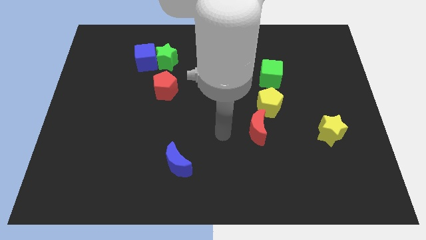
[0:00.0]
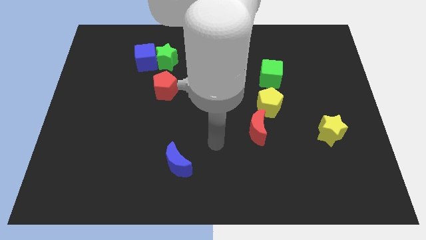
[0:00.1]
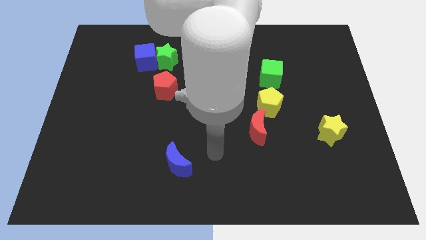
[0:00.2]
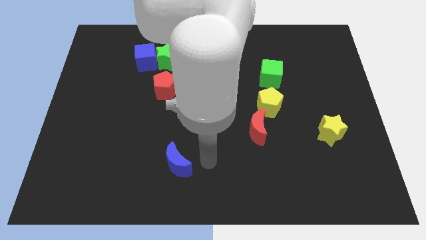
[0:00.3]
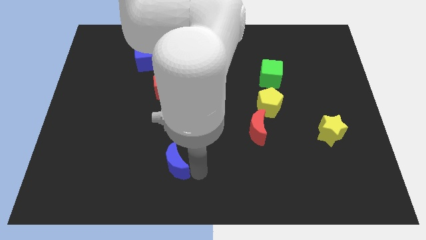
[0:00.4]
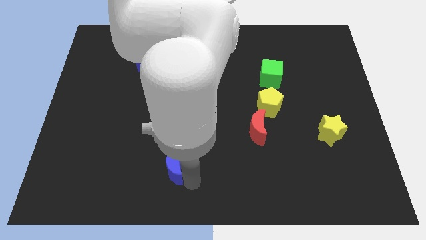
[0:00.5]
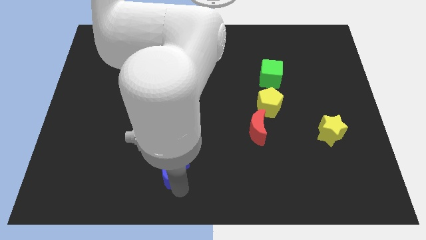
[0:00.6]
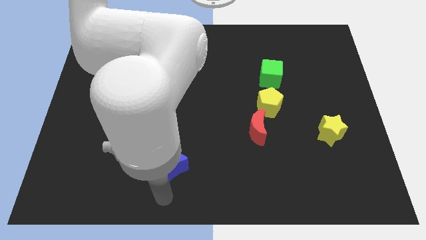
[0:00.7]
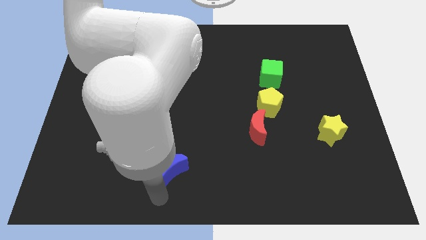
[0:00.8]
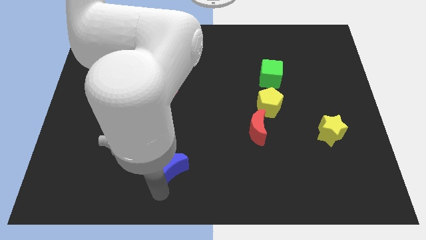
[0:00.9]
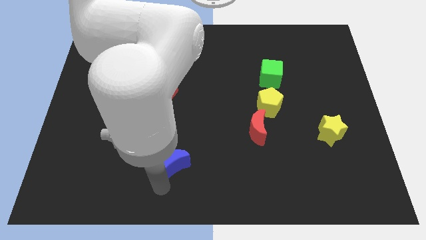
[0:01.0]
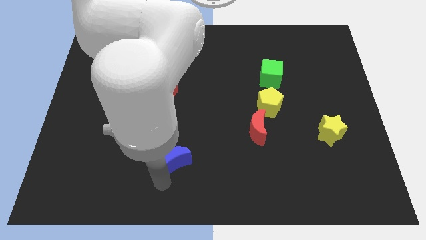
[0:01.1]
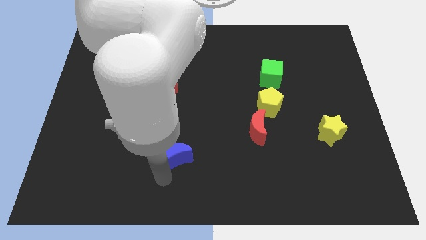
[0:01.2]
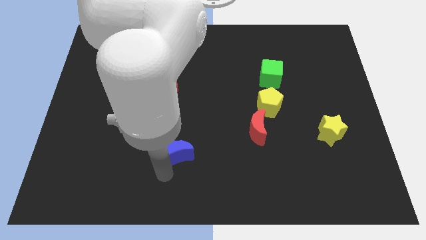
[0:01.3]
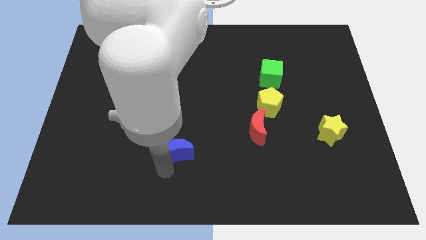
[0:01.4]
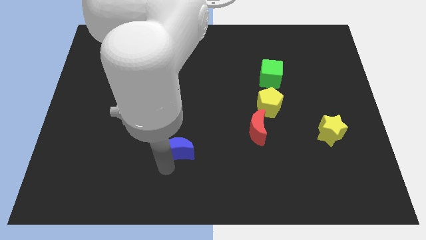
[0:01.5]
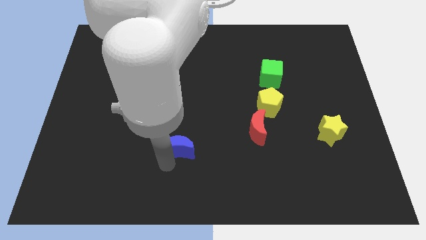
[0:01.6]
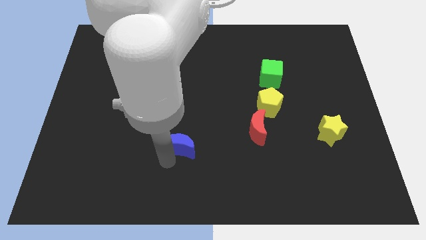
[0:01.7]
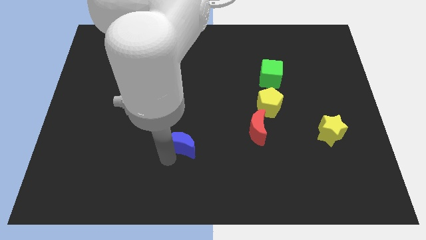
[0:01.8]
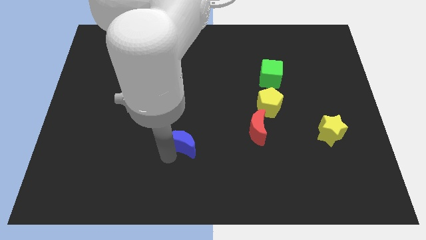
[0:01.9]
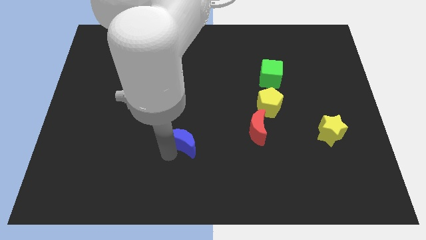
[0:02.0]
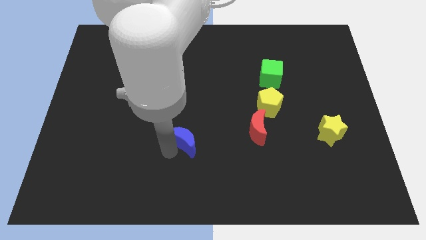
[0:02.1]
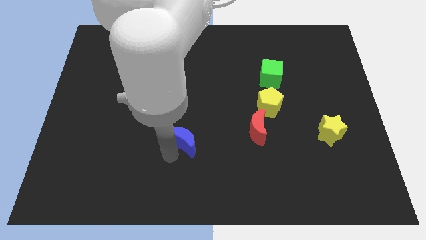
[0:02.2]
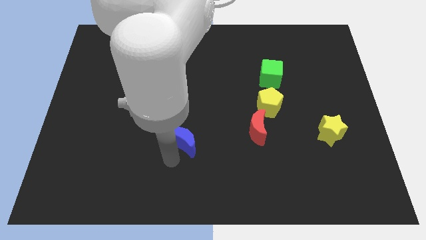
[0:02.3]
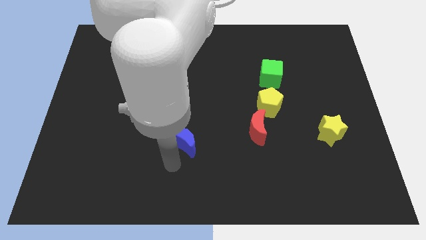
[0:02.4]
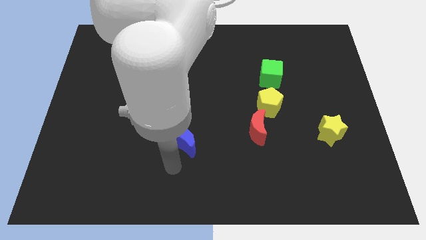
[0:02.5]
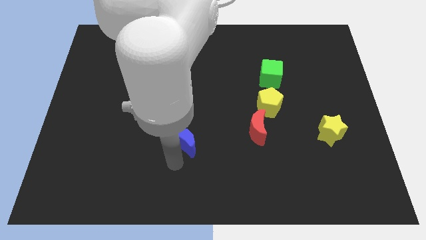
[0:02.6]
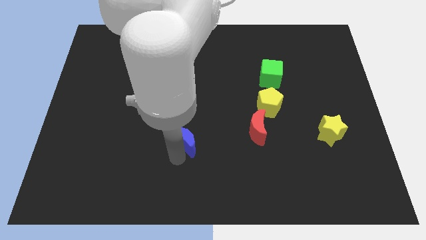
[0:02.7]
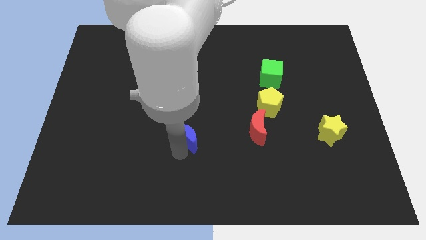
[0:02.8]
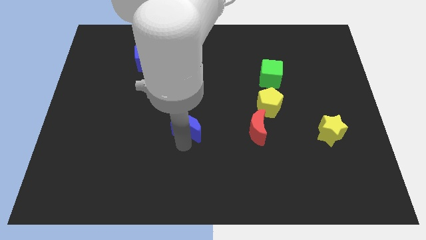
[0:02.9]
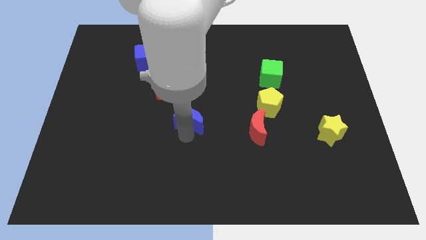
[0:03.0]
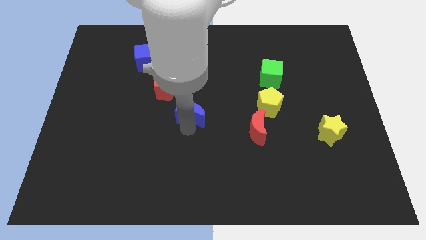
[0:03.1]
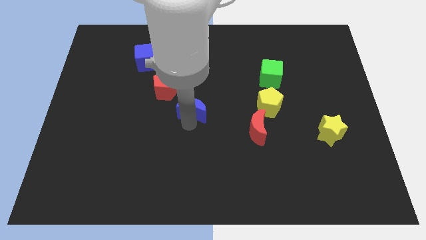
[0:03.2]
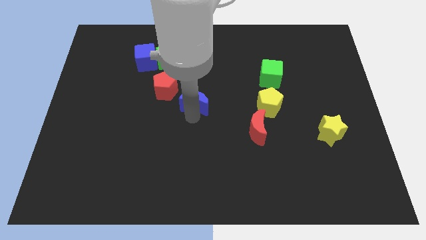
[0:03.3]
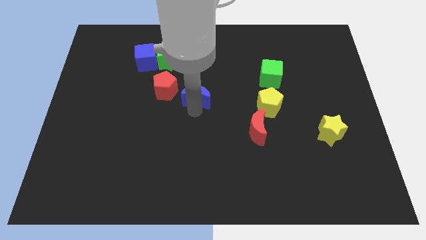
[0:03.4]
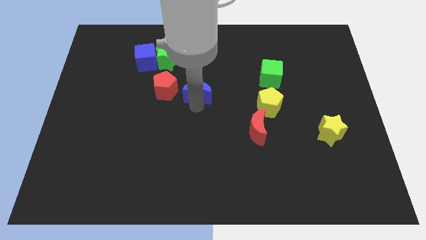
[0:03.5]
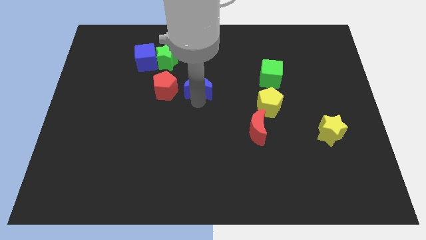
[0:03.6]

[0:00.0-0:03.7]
move the blue moon upwards

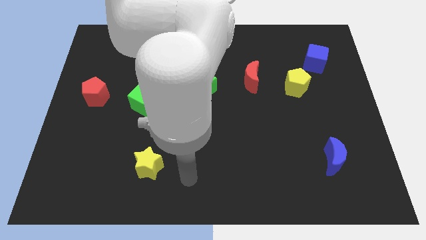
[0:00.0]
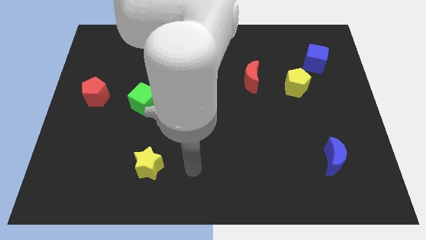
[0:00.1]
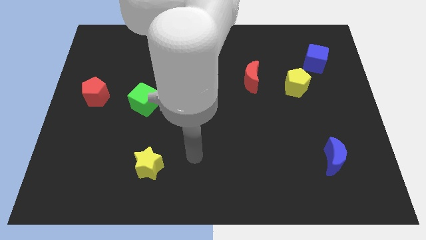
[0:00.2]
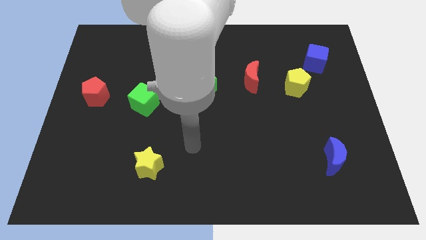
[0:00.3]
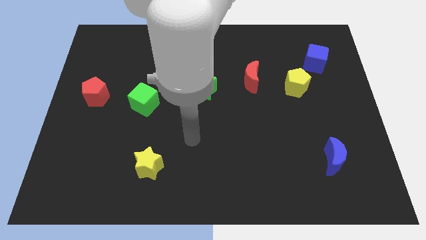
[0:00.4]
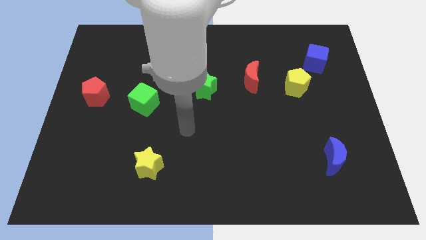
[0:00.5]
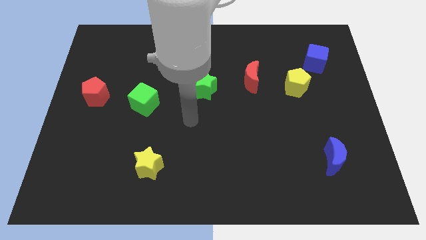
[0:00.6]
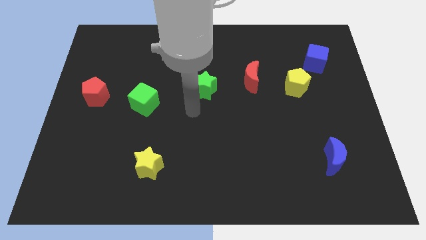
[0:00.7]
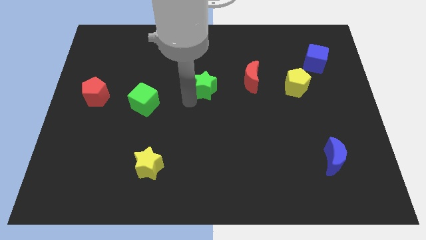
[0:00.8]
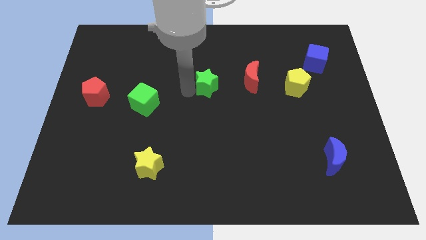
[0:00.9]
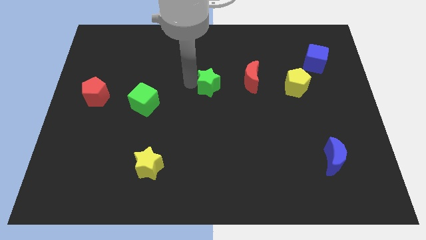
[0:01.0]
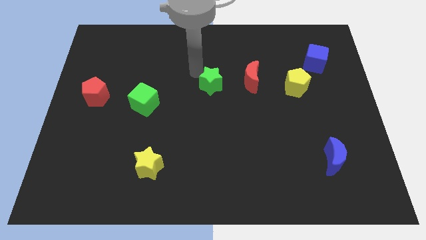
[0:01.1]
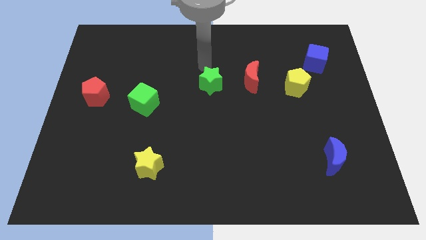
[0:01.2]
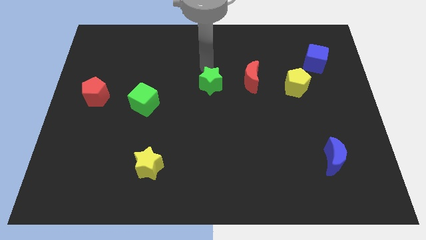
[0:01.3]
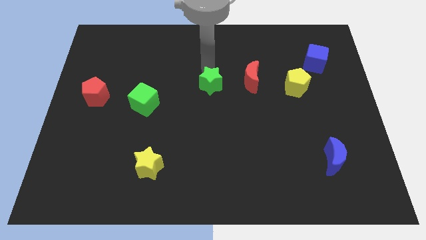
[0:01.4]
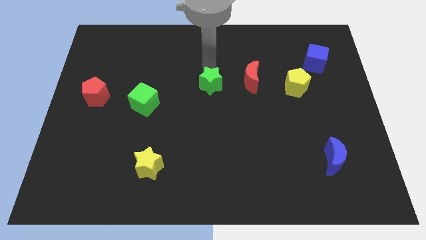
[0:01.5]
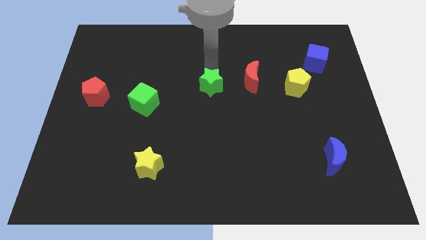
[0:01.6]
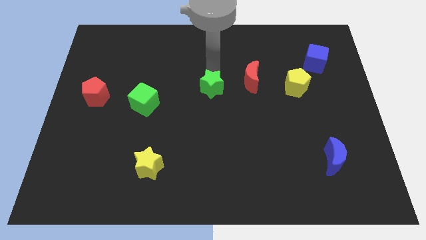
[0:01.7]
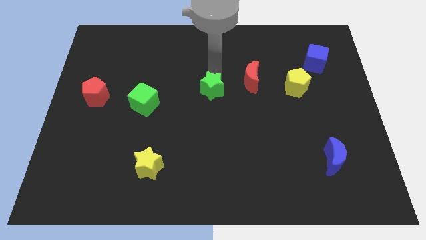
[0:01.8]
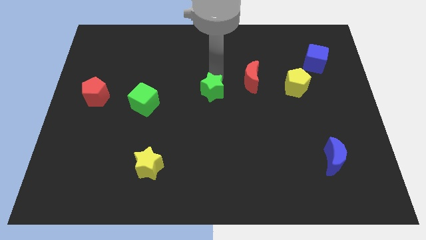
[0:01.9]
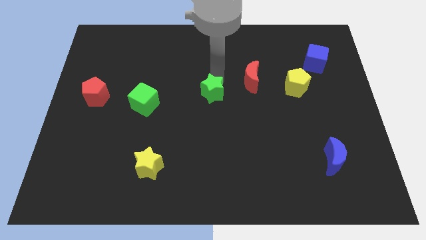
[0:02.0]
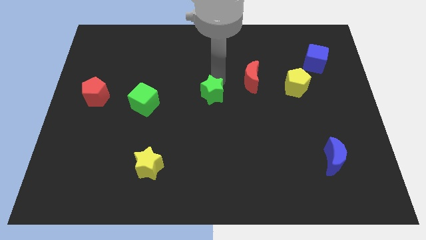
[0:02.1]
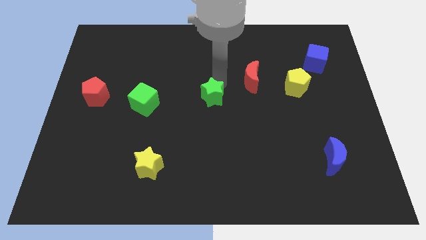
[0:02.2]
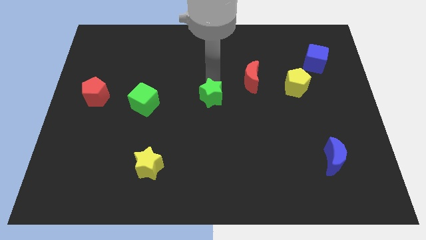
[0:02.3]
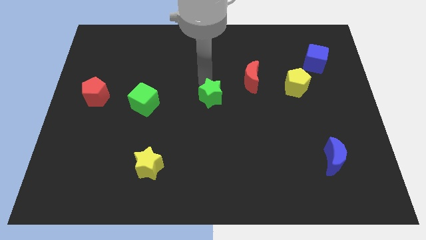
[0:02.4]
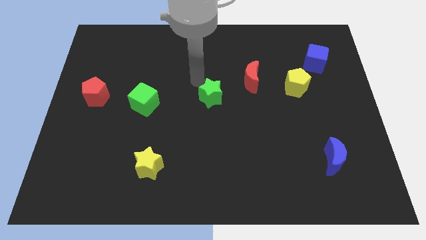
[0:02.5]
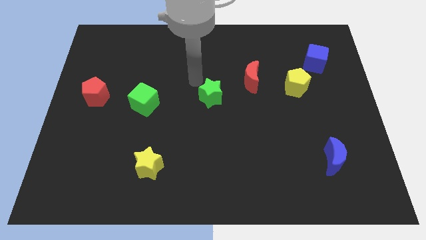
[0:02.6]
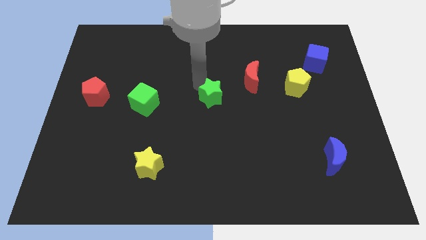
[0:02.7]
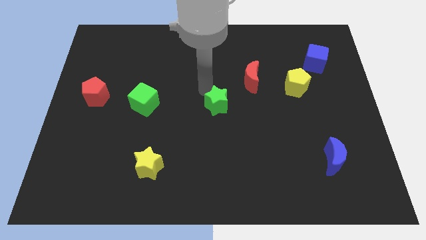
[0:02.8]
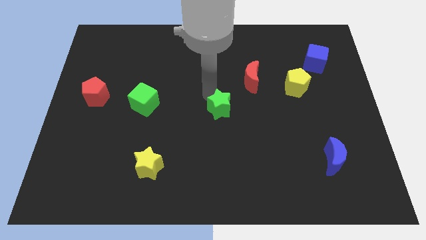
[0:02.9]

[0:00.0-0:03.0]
push the green star diagonally downwards and right a little

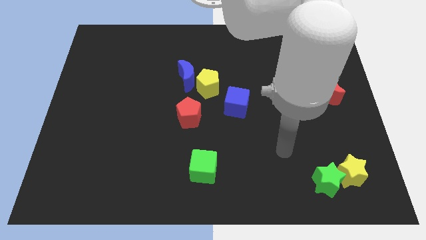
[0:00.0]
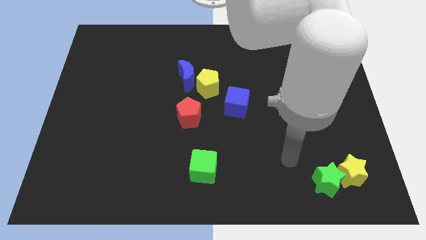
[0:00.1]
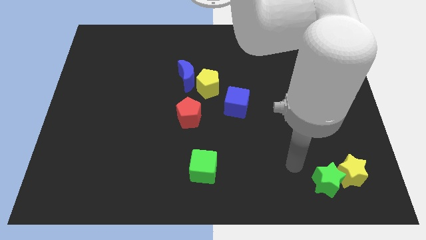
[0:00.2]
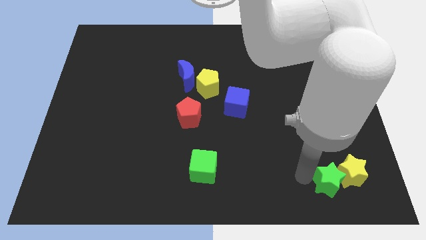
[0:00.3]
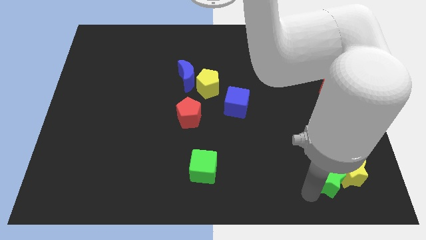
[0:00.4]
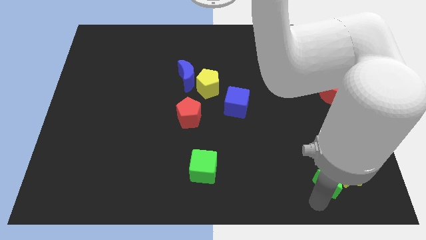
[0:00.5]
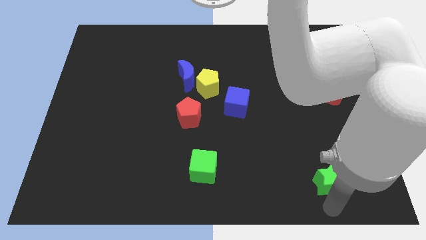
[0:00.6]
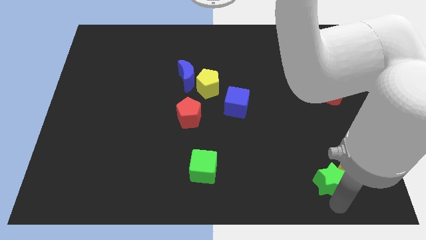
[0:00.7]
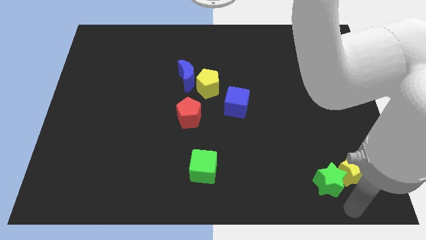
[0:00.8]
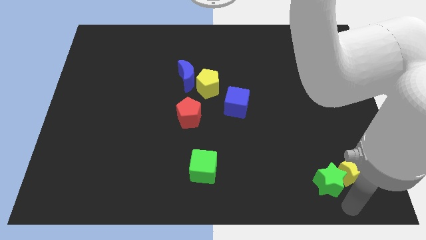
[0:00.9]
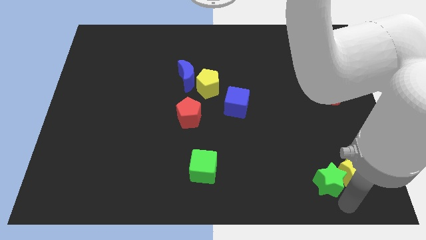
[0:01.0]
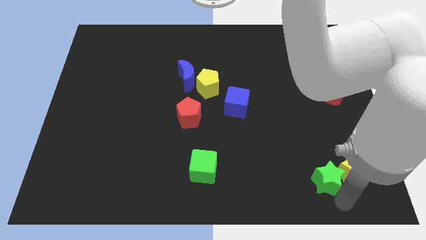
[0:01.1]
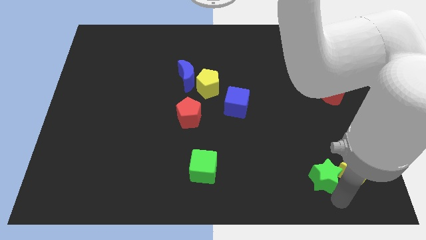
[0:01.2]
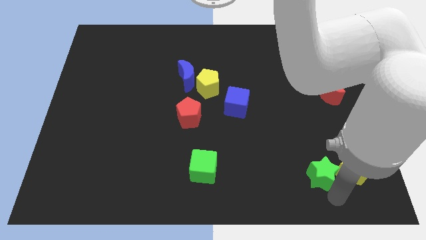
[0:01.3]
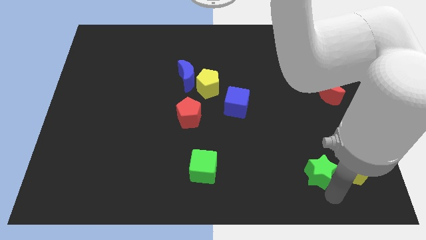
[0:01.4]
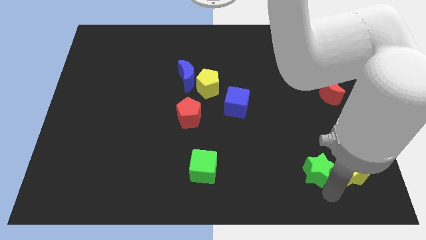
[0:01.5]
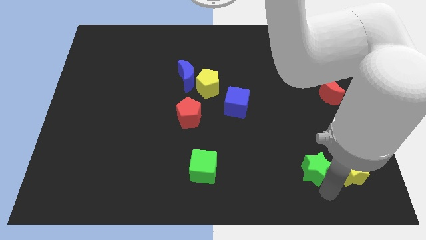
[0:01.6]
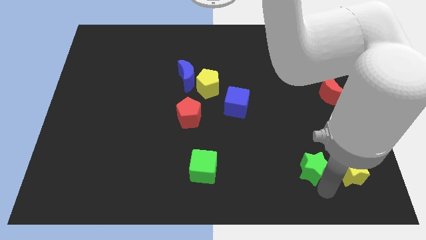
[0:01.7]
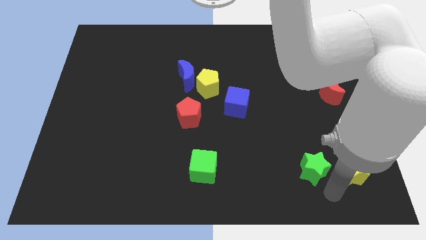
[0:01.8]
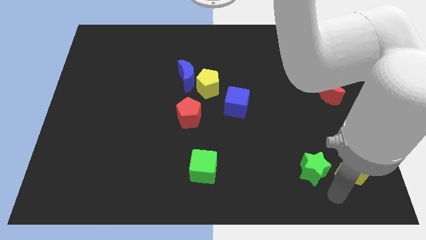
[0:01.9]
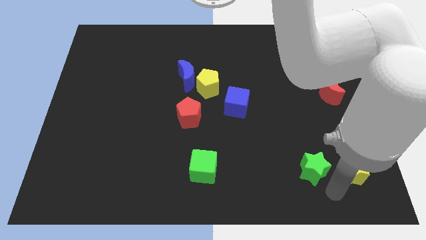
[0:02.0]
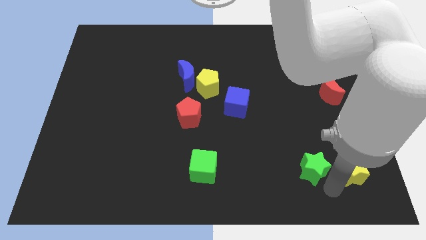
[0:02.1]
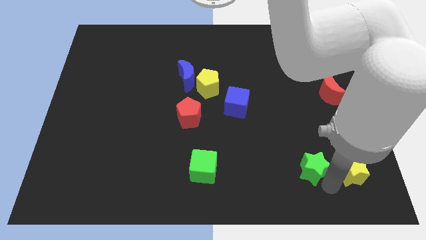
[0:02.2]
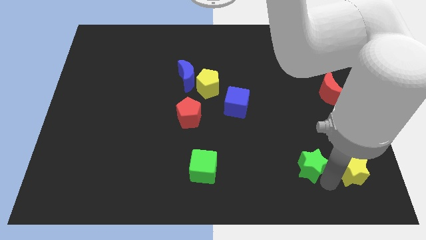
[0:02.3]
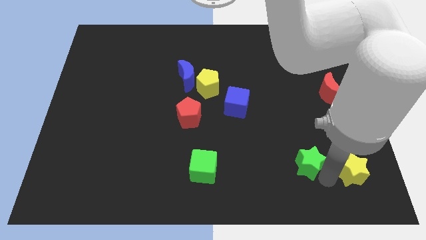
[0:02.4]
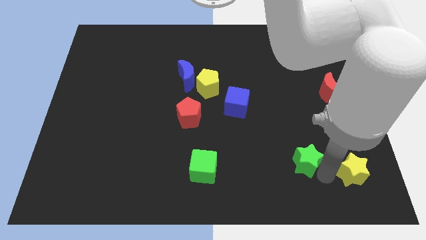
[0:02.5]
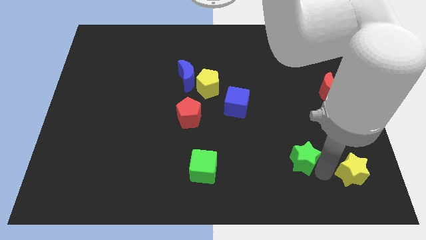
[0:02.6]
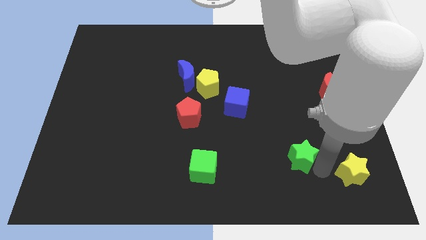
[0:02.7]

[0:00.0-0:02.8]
slightly push the green star diagonally upwards and left
